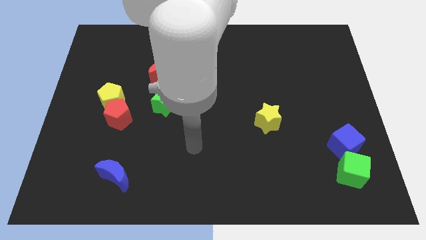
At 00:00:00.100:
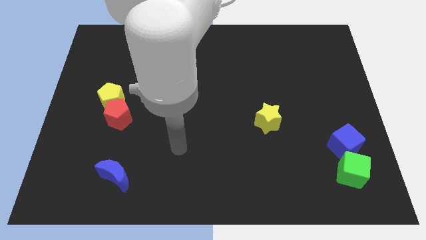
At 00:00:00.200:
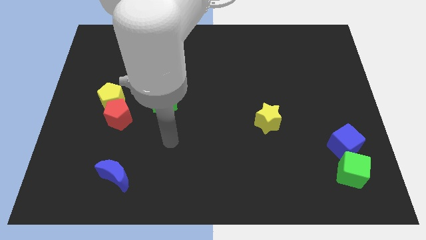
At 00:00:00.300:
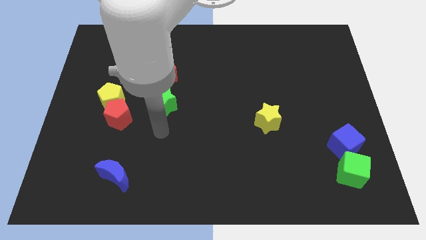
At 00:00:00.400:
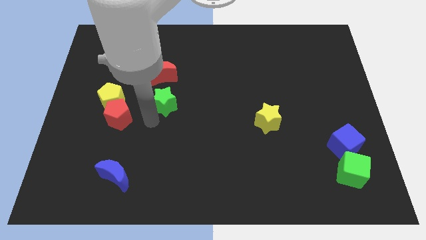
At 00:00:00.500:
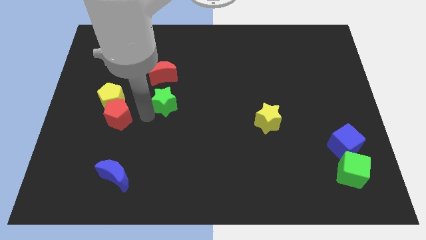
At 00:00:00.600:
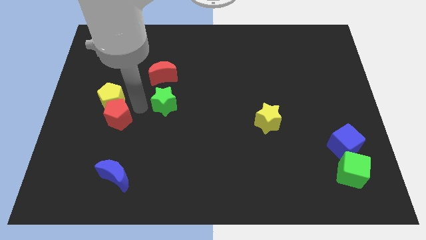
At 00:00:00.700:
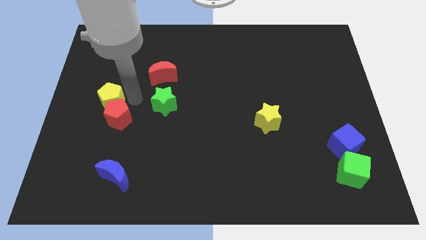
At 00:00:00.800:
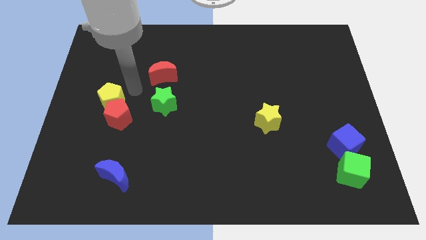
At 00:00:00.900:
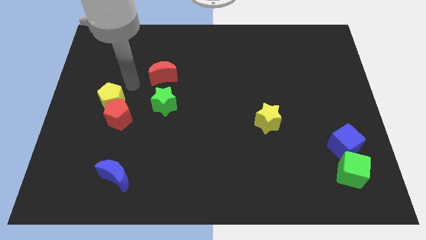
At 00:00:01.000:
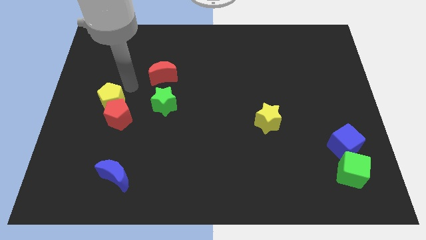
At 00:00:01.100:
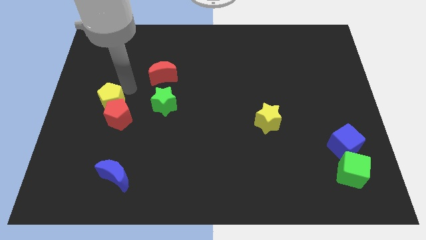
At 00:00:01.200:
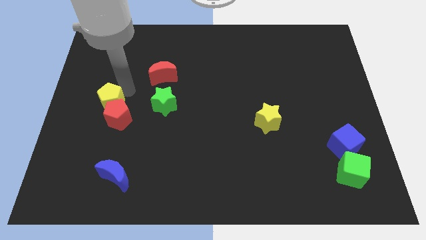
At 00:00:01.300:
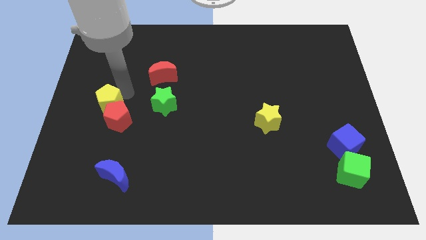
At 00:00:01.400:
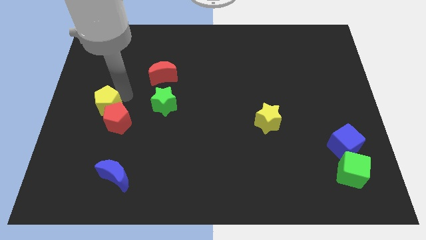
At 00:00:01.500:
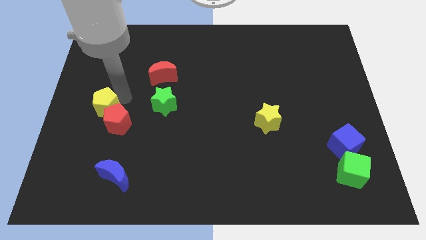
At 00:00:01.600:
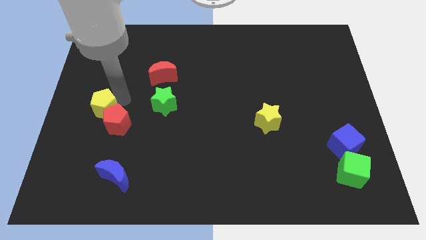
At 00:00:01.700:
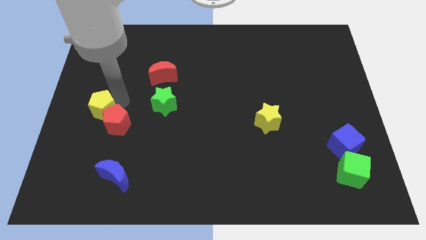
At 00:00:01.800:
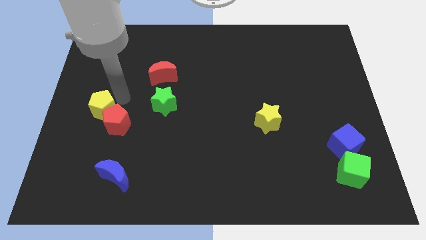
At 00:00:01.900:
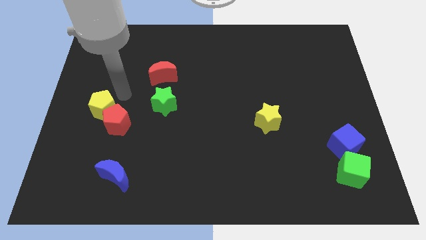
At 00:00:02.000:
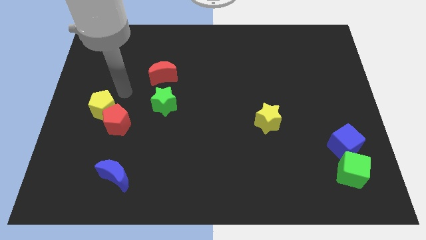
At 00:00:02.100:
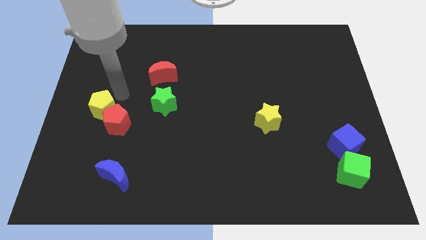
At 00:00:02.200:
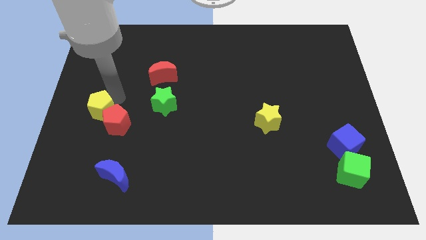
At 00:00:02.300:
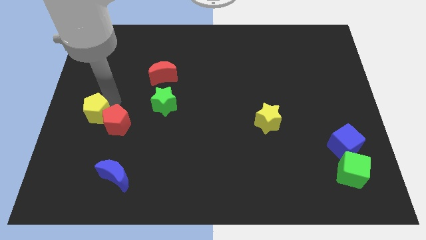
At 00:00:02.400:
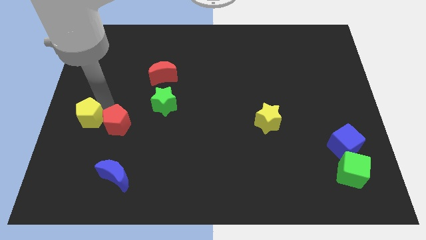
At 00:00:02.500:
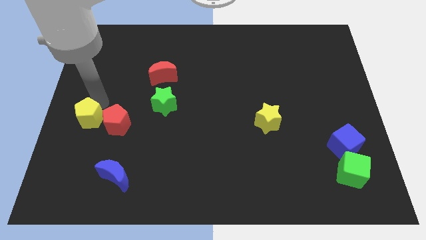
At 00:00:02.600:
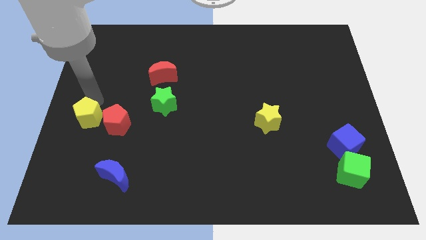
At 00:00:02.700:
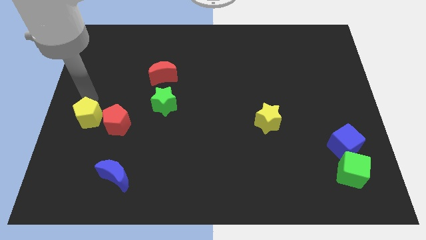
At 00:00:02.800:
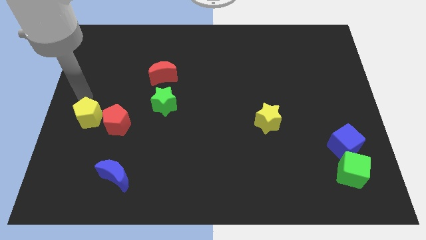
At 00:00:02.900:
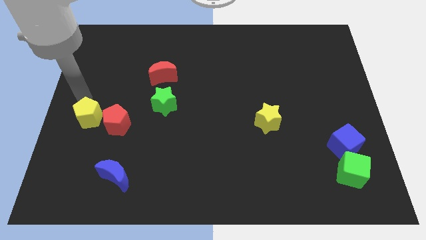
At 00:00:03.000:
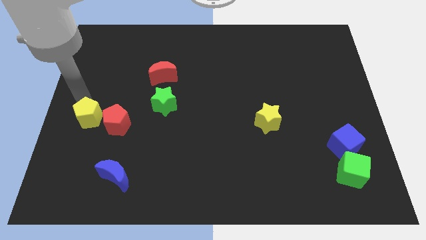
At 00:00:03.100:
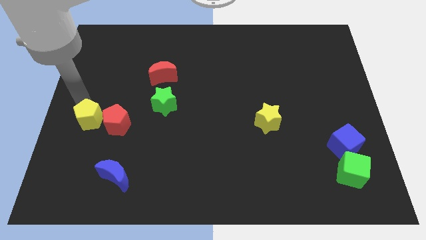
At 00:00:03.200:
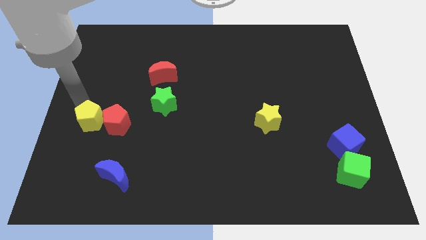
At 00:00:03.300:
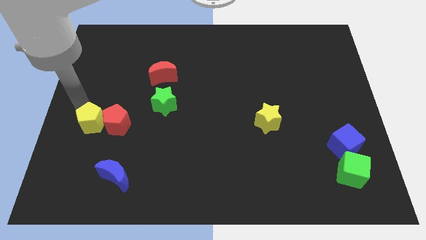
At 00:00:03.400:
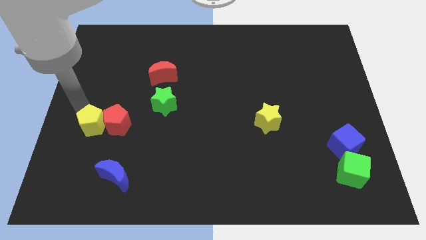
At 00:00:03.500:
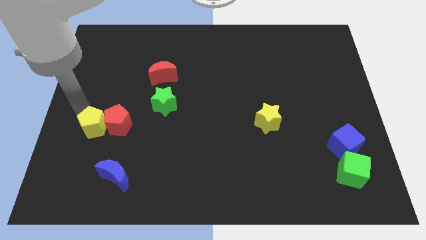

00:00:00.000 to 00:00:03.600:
push the yellow pentagon down a bit

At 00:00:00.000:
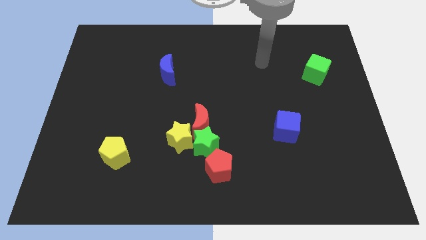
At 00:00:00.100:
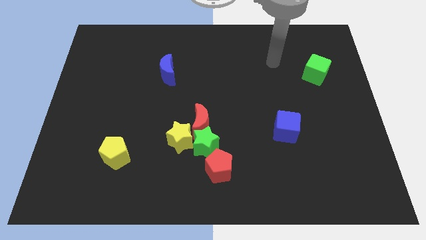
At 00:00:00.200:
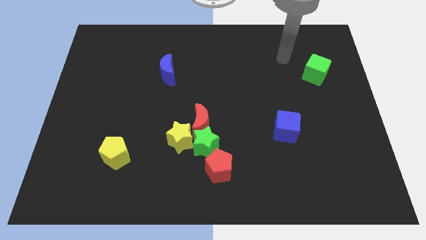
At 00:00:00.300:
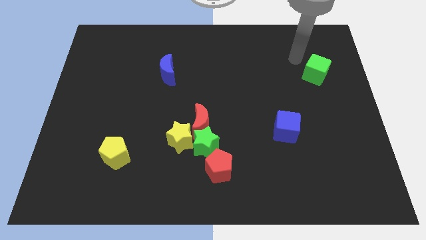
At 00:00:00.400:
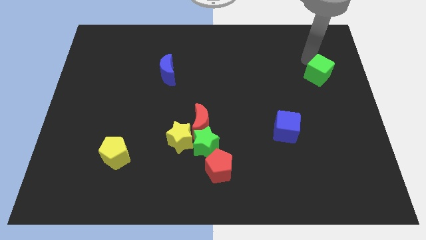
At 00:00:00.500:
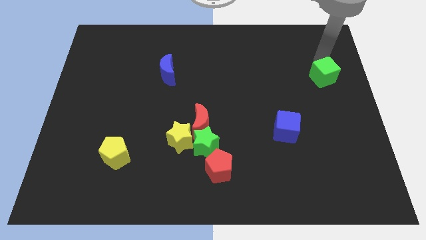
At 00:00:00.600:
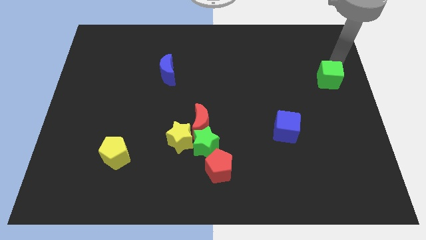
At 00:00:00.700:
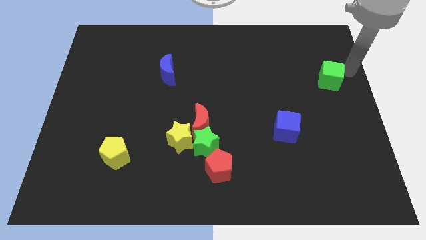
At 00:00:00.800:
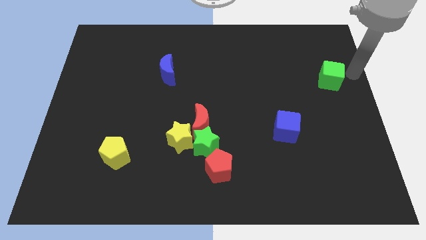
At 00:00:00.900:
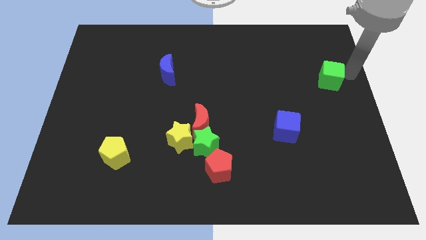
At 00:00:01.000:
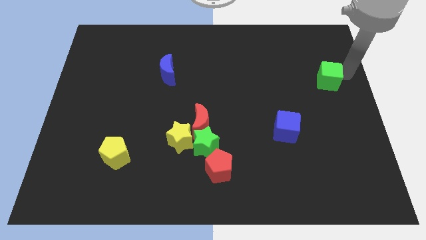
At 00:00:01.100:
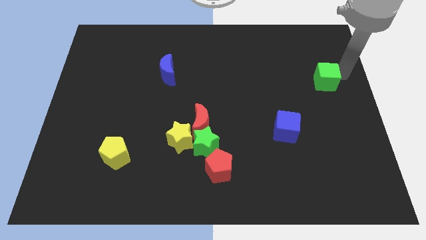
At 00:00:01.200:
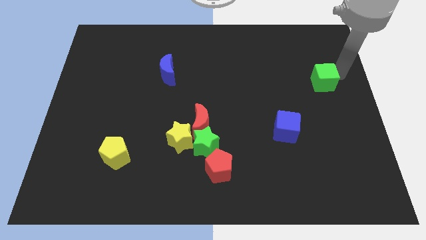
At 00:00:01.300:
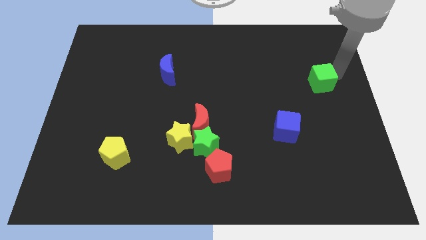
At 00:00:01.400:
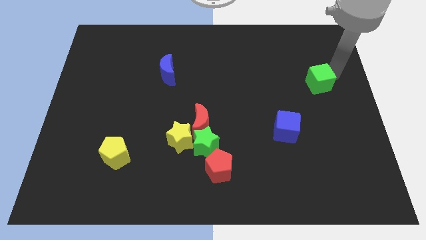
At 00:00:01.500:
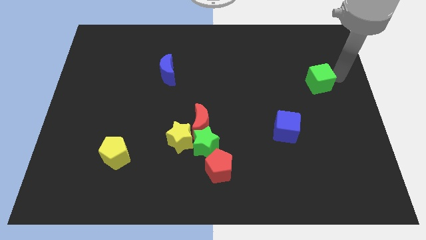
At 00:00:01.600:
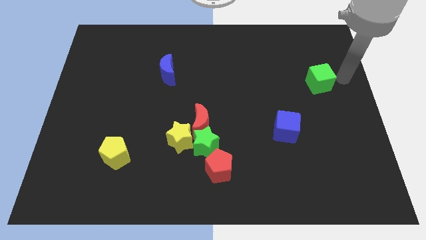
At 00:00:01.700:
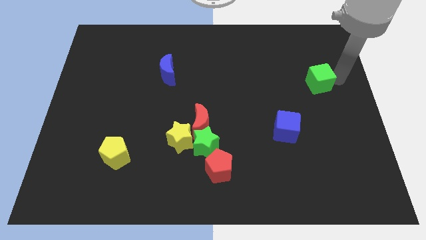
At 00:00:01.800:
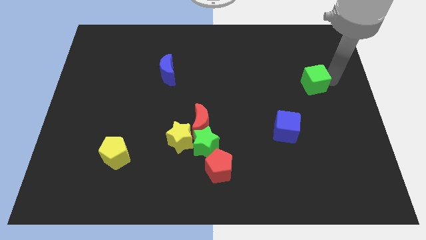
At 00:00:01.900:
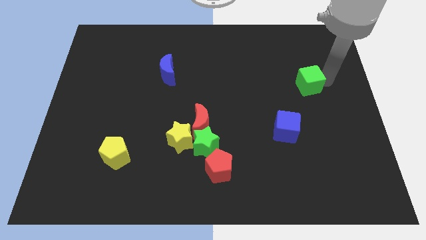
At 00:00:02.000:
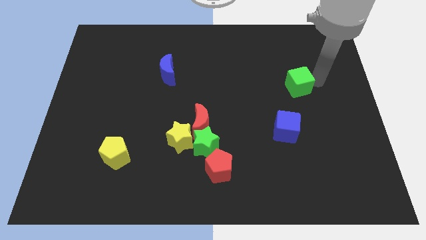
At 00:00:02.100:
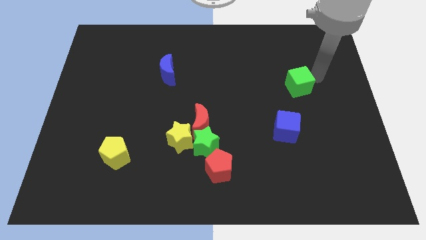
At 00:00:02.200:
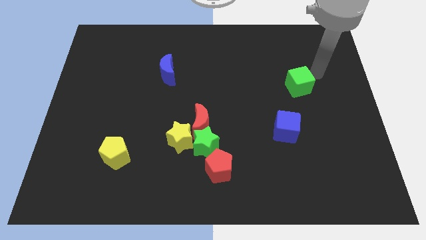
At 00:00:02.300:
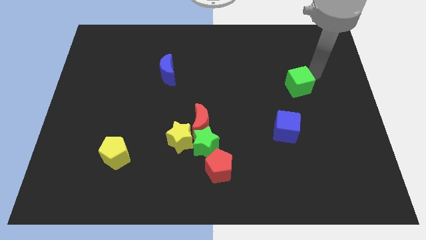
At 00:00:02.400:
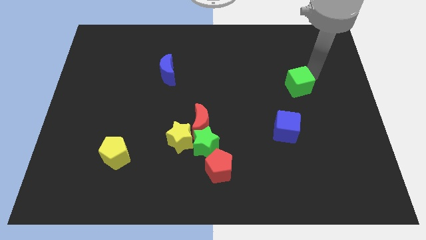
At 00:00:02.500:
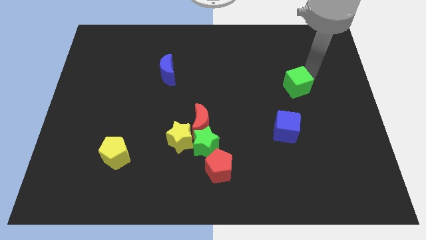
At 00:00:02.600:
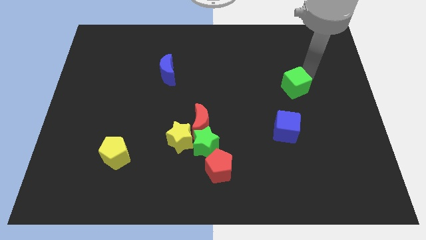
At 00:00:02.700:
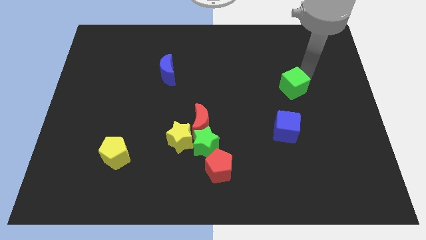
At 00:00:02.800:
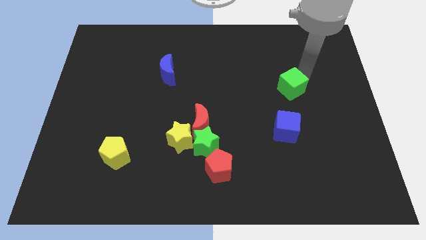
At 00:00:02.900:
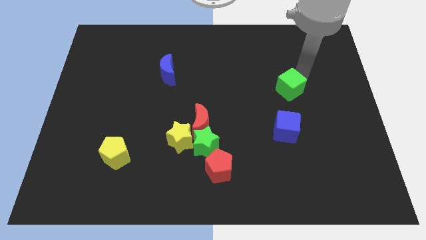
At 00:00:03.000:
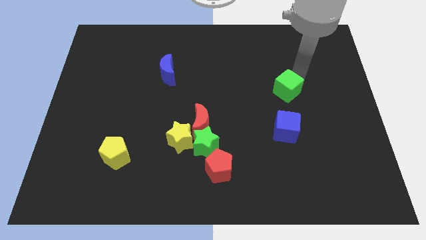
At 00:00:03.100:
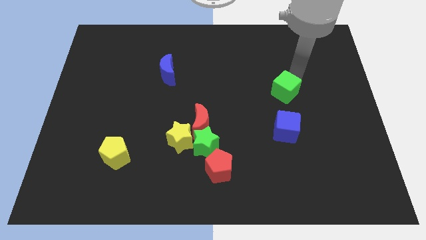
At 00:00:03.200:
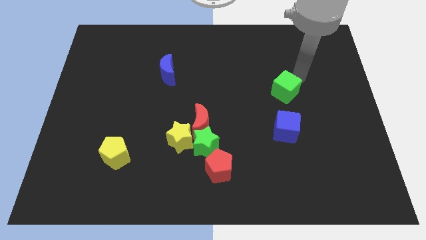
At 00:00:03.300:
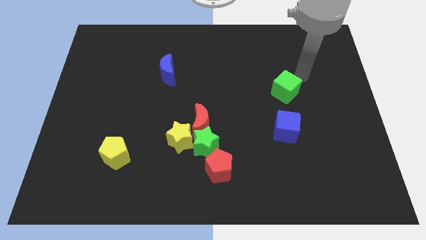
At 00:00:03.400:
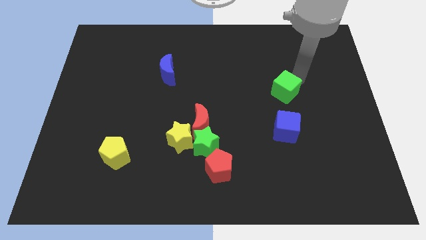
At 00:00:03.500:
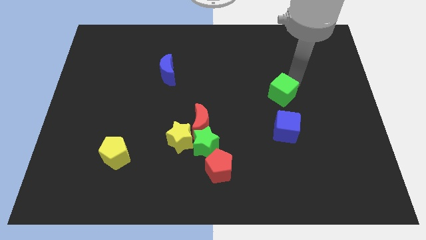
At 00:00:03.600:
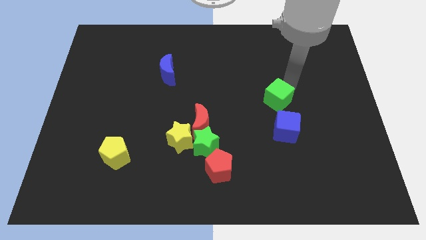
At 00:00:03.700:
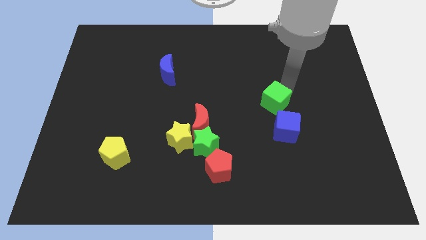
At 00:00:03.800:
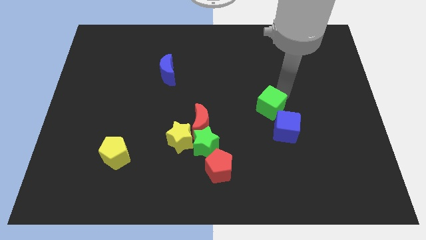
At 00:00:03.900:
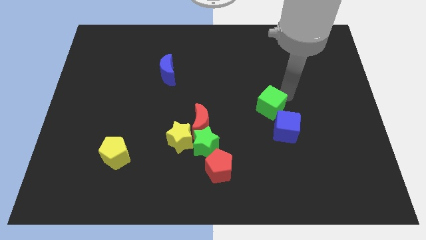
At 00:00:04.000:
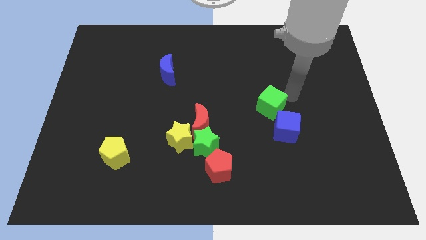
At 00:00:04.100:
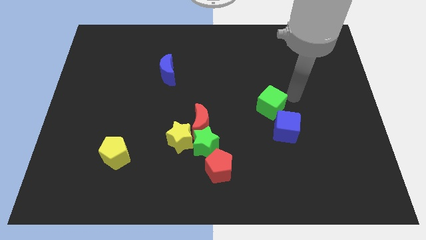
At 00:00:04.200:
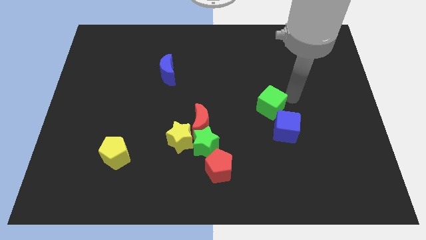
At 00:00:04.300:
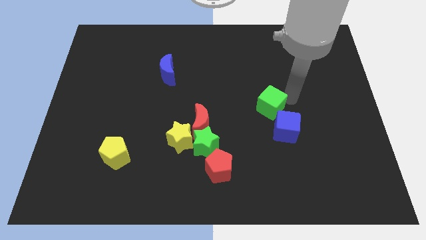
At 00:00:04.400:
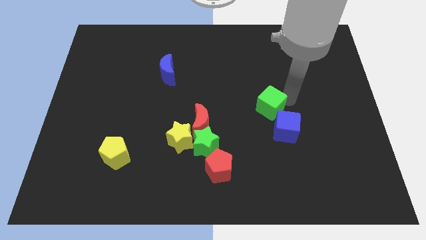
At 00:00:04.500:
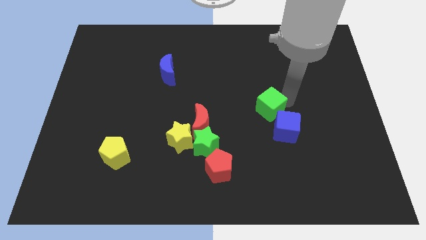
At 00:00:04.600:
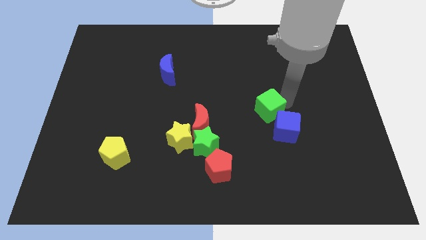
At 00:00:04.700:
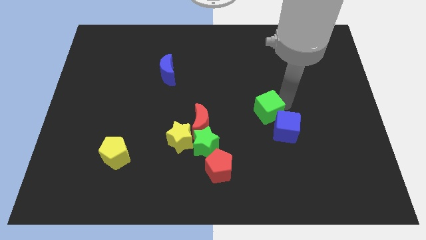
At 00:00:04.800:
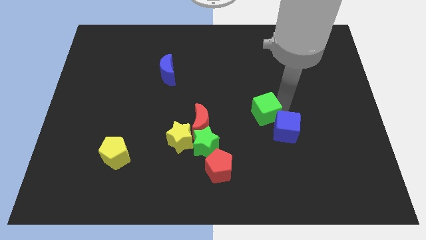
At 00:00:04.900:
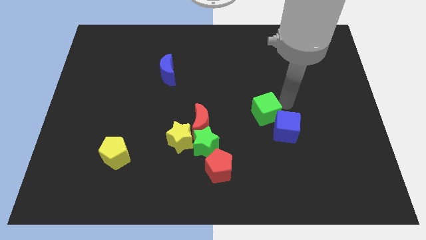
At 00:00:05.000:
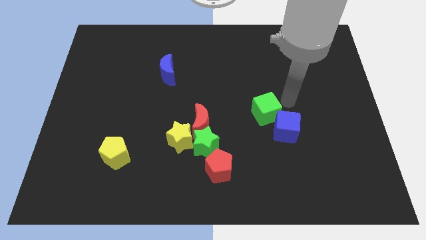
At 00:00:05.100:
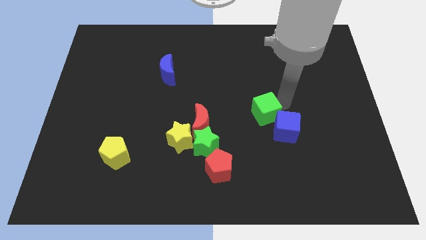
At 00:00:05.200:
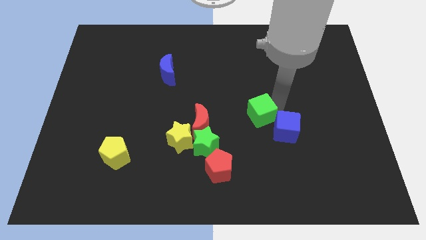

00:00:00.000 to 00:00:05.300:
move the green cube down and then left
